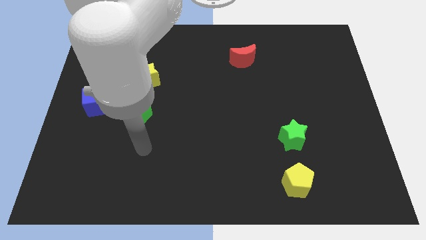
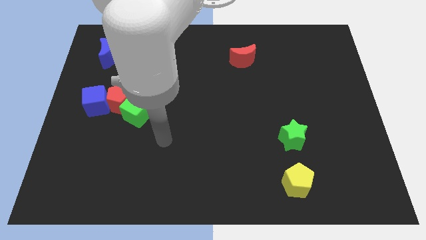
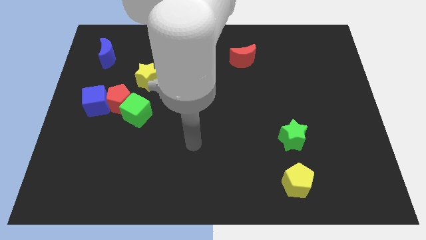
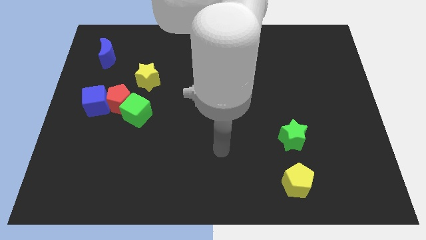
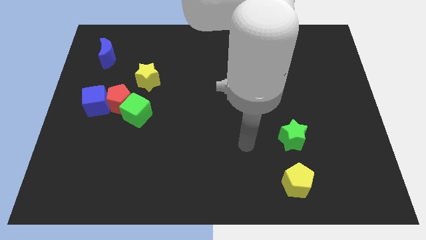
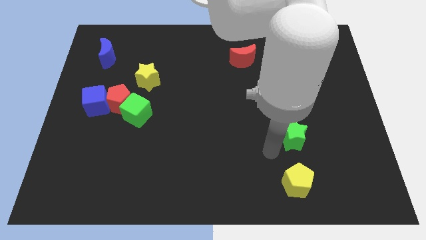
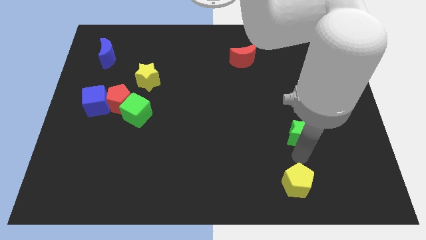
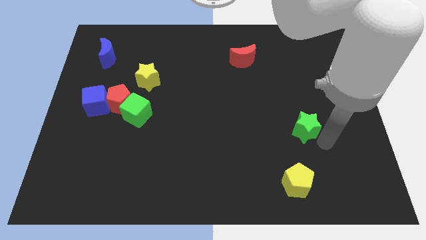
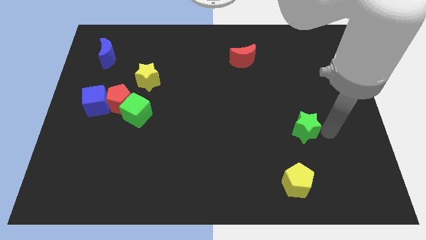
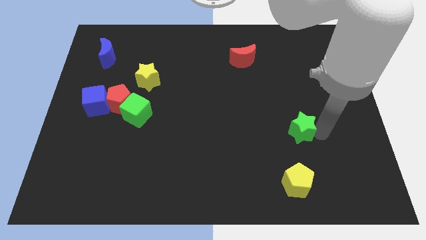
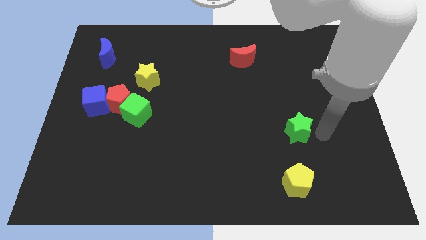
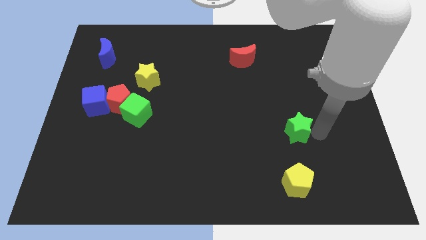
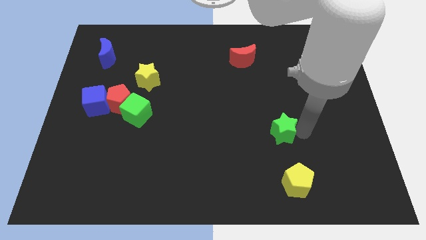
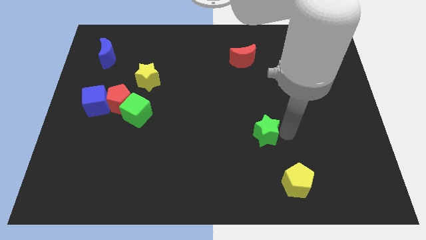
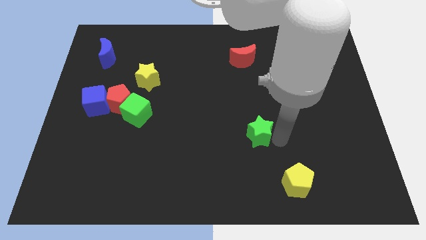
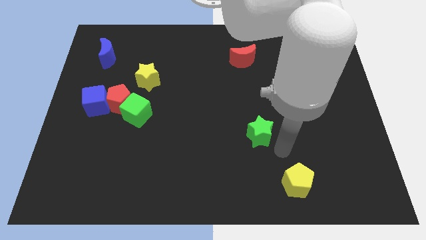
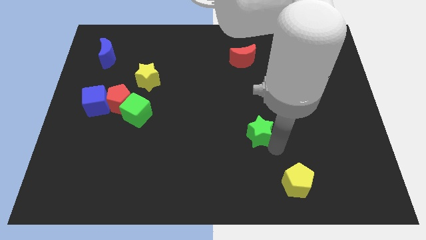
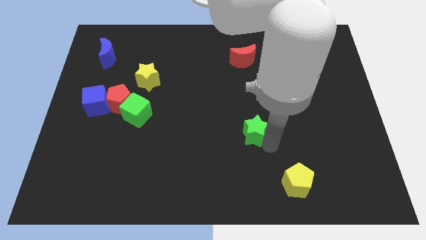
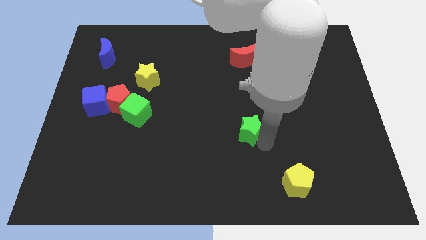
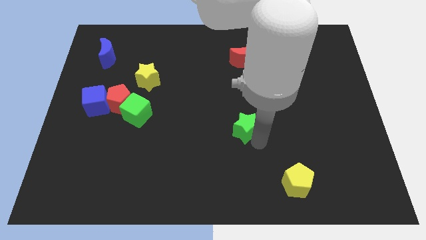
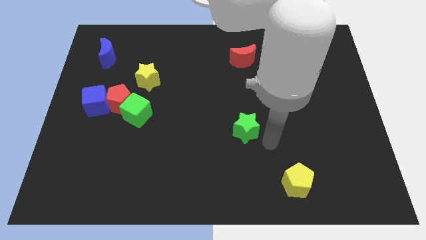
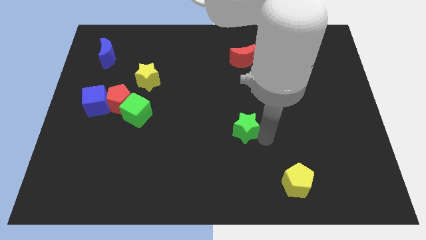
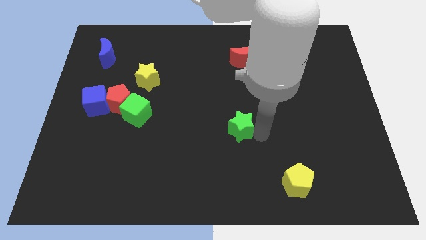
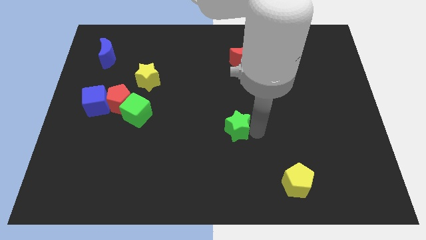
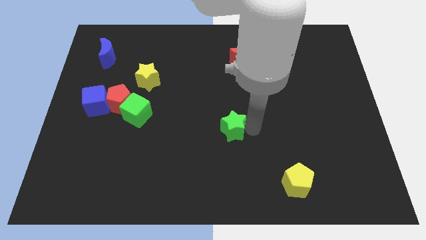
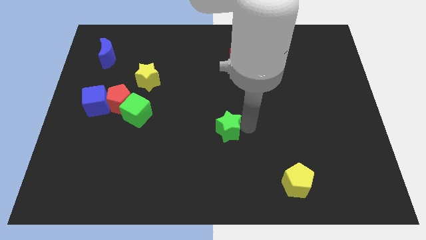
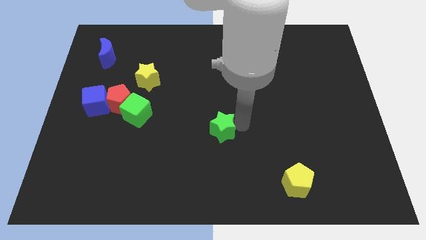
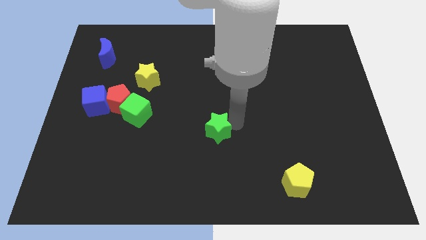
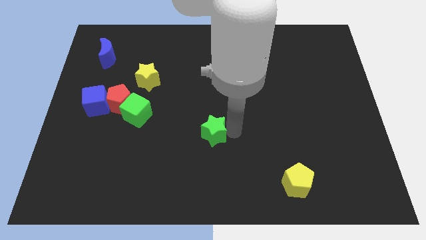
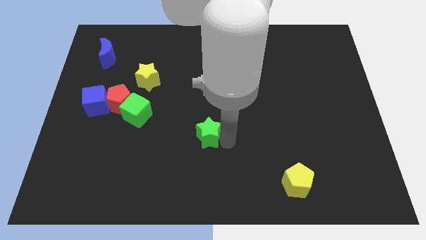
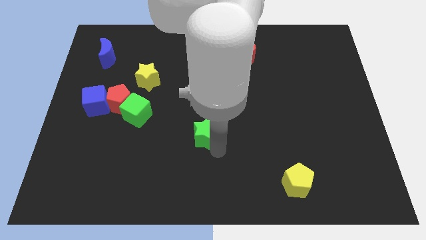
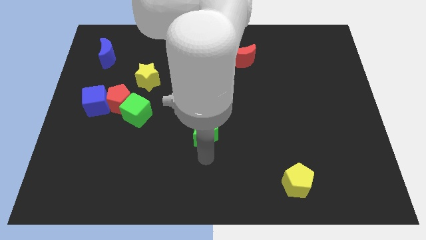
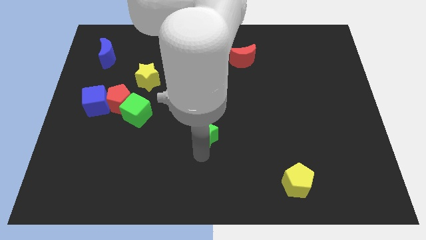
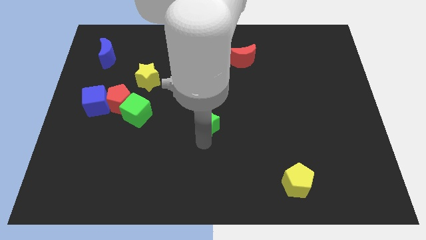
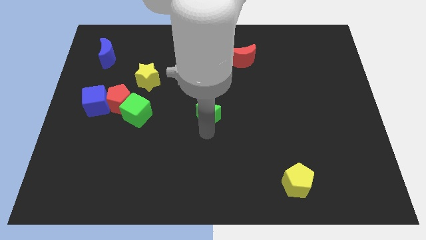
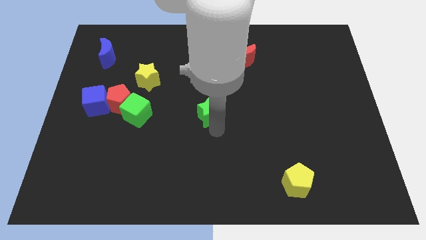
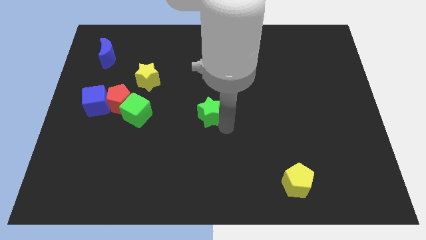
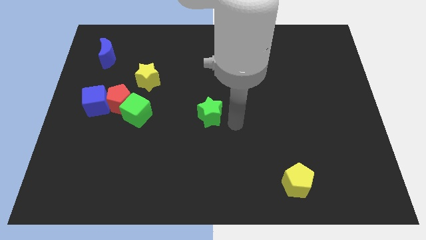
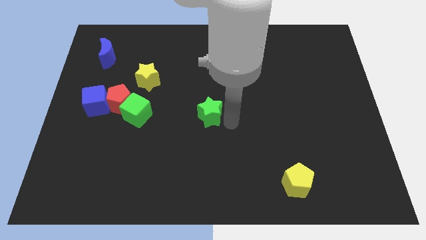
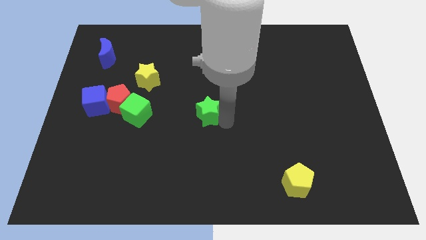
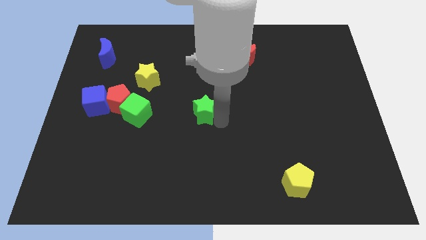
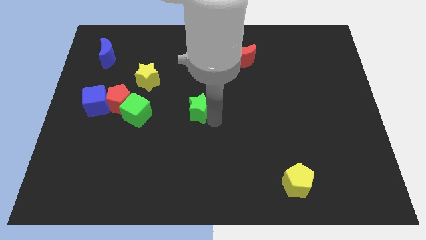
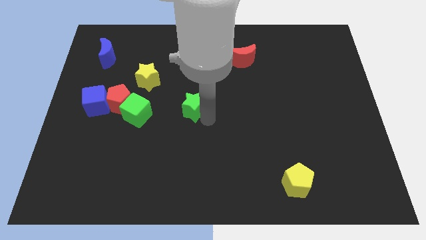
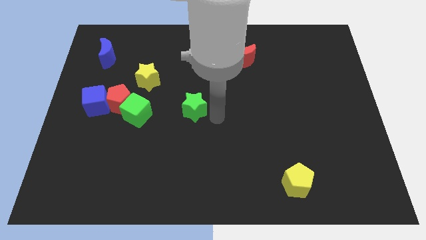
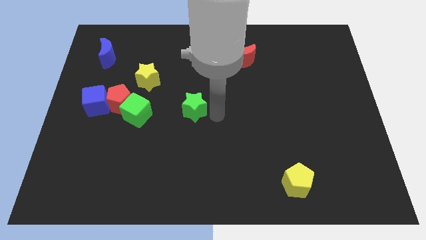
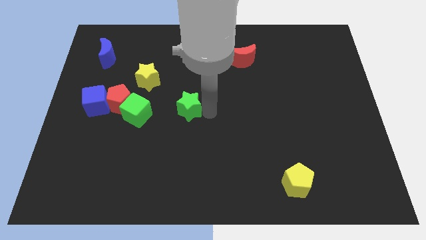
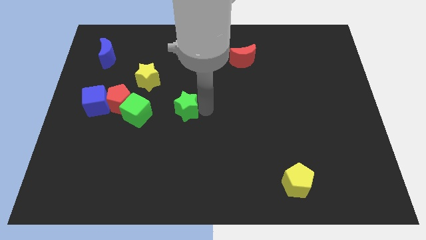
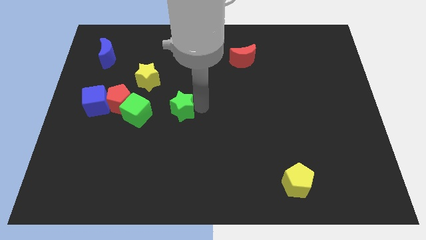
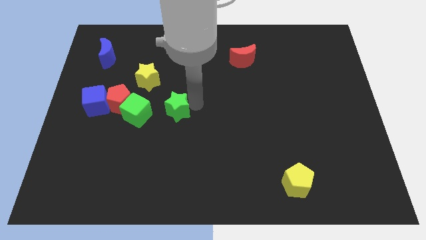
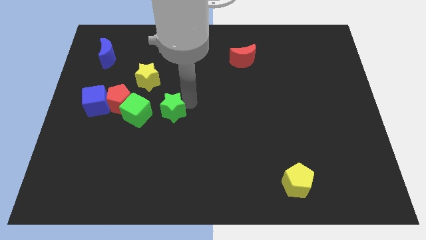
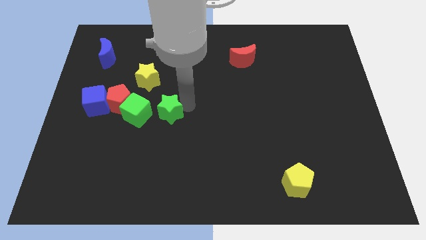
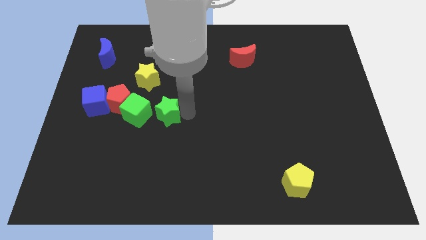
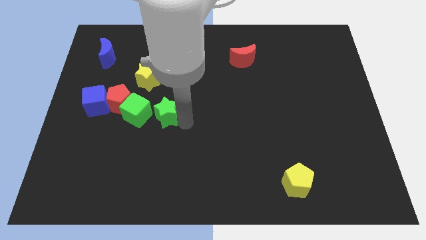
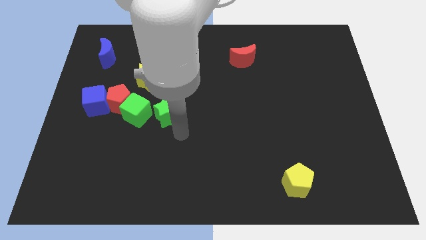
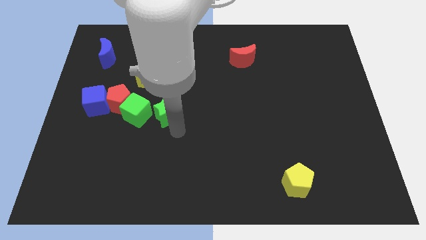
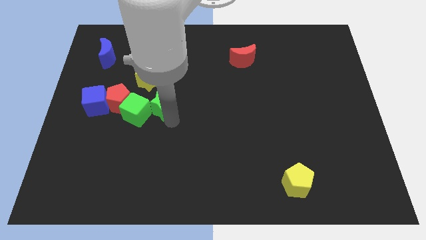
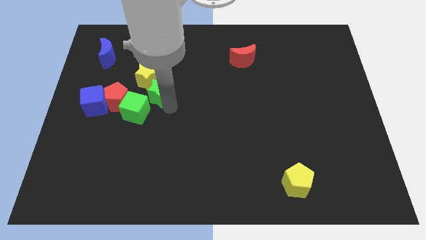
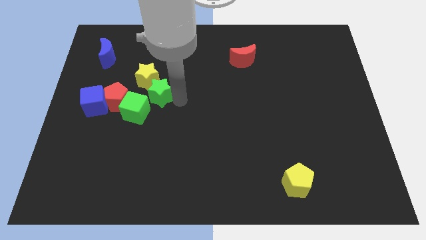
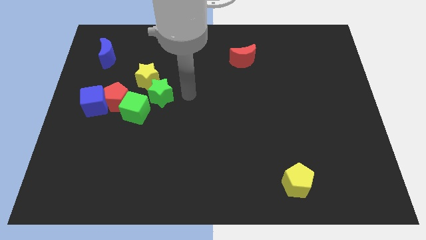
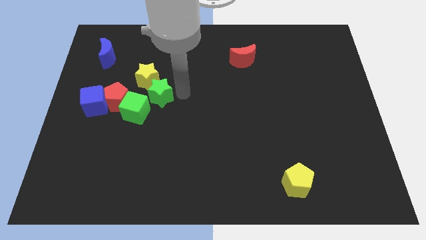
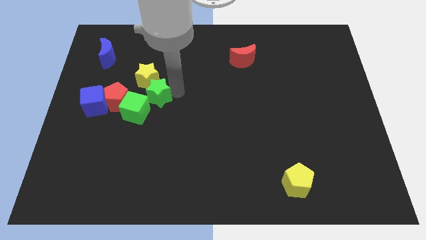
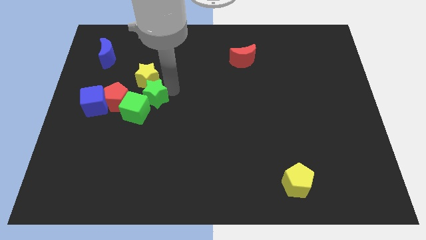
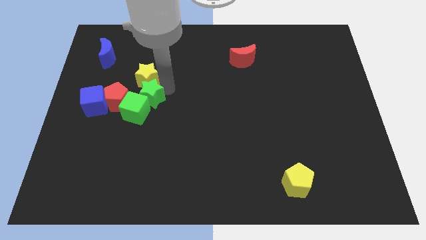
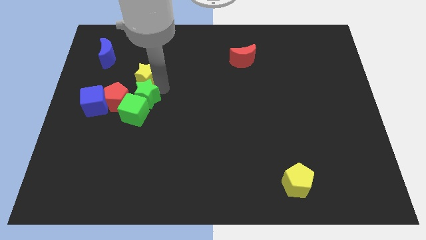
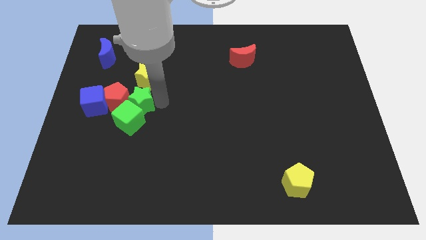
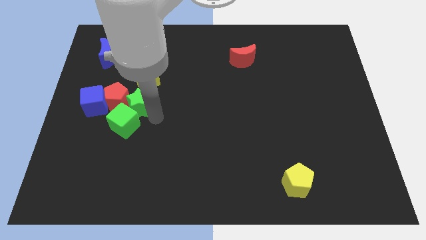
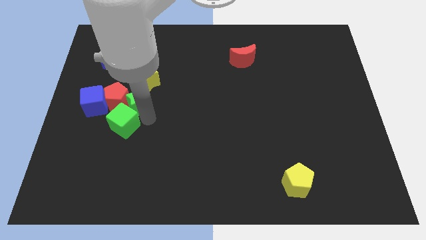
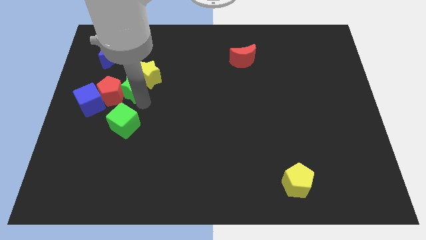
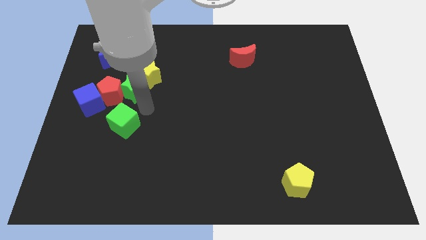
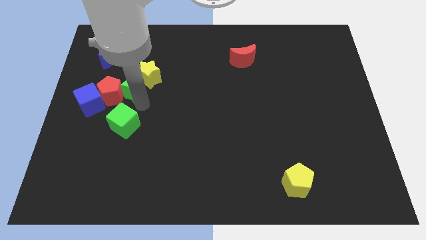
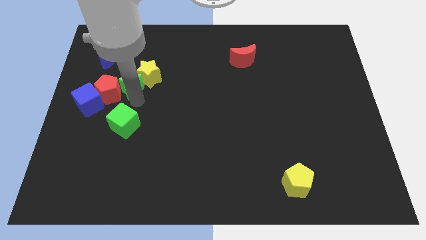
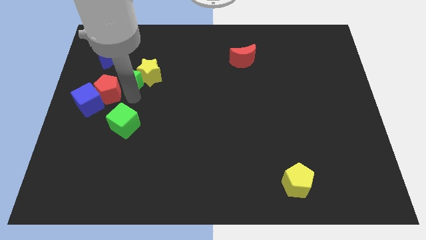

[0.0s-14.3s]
put the green star to the bottom right side of the blue moon
